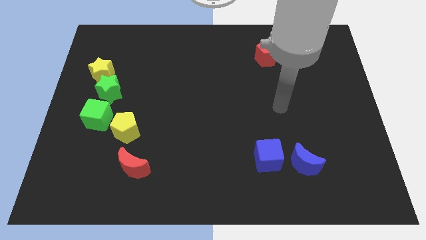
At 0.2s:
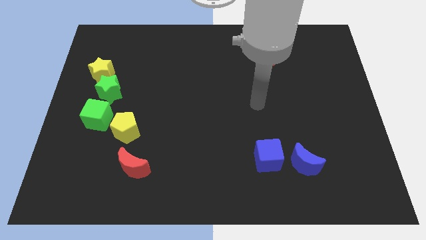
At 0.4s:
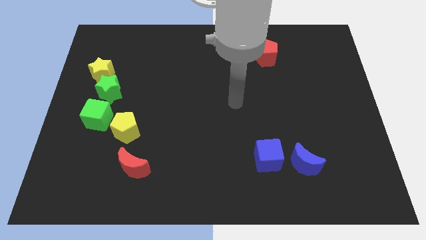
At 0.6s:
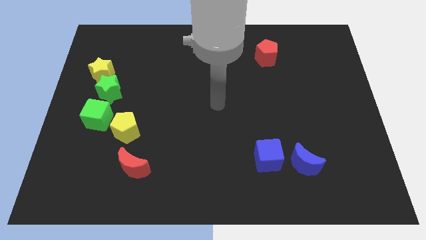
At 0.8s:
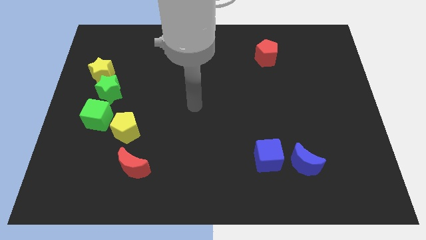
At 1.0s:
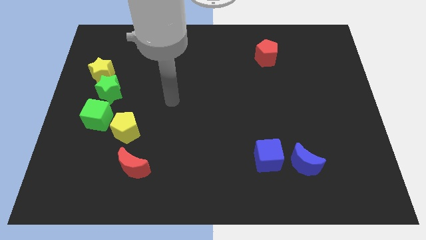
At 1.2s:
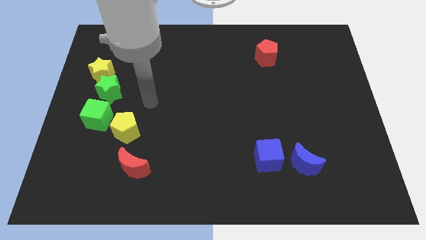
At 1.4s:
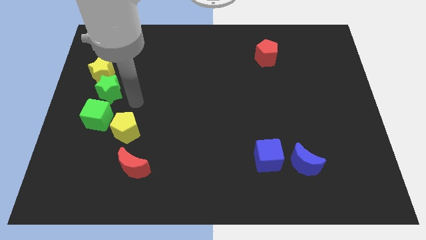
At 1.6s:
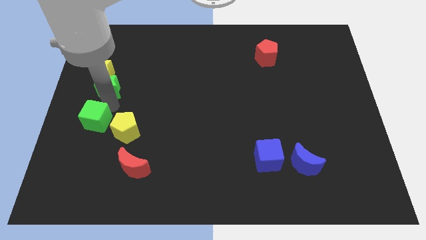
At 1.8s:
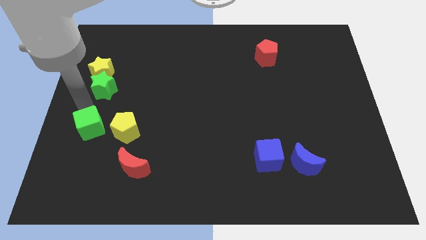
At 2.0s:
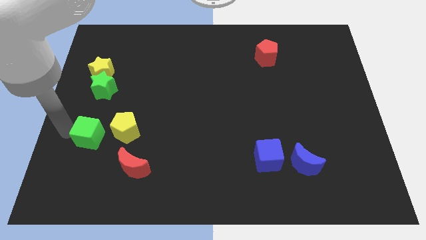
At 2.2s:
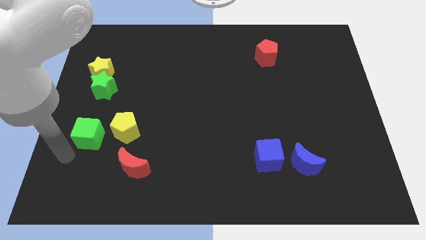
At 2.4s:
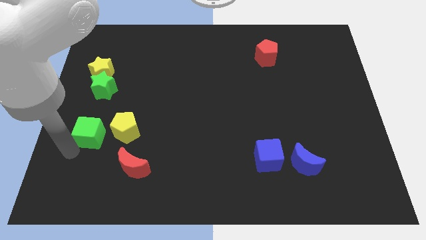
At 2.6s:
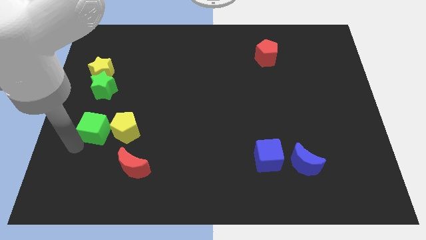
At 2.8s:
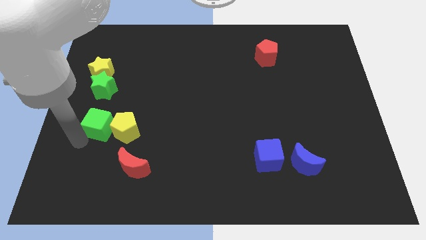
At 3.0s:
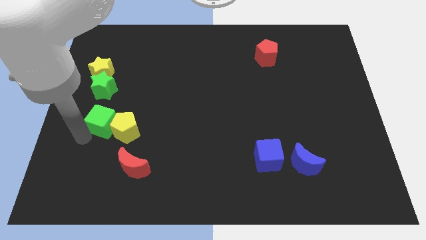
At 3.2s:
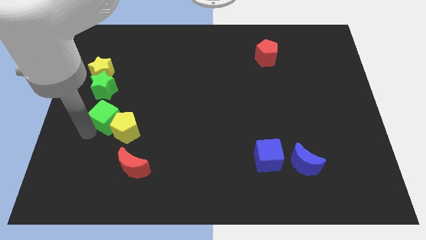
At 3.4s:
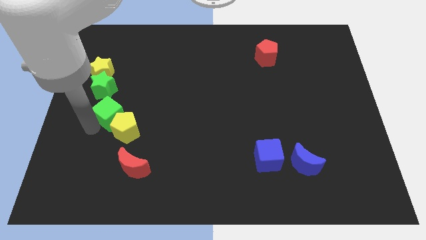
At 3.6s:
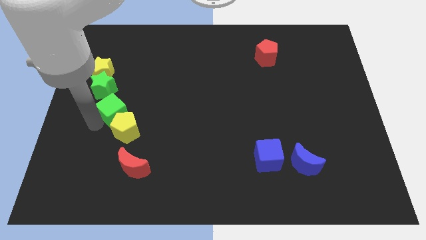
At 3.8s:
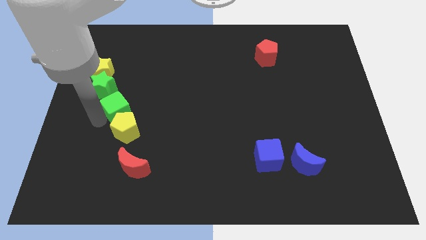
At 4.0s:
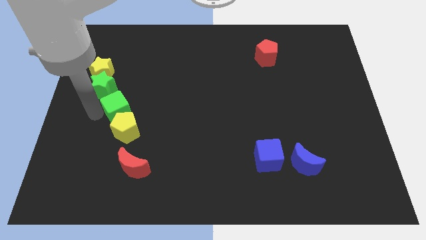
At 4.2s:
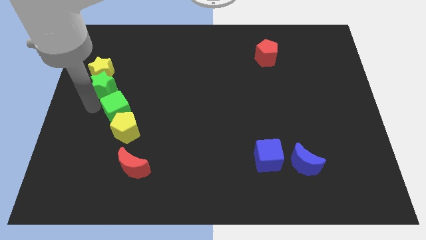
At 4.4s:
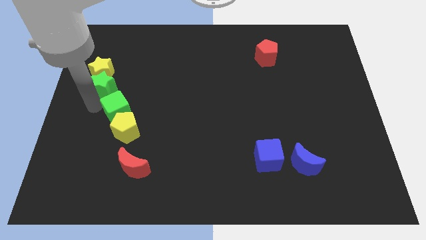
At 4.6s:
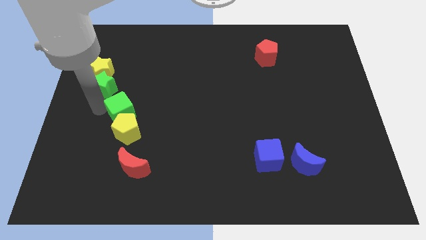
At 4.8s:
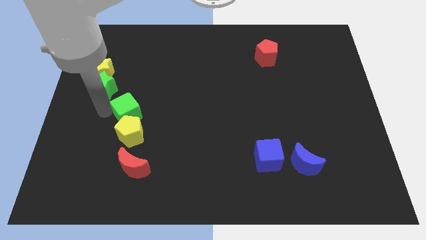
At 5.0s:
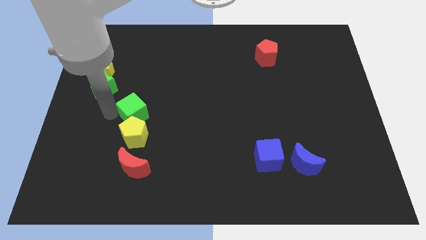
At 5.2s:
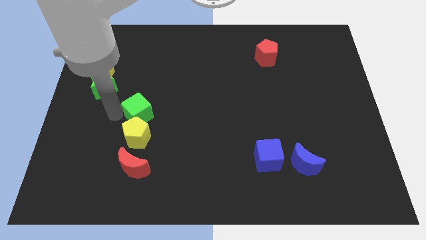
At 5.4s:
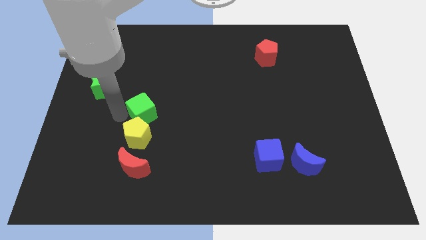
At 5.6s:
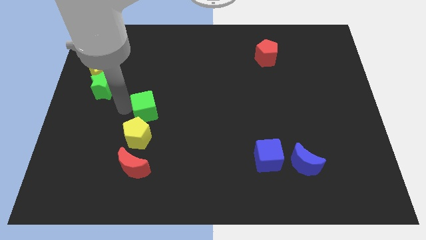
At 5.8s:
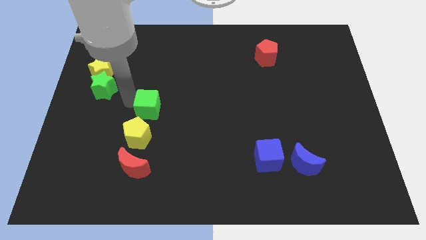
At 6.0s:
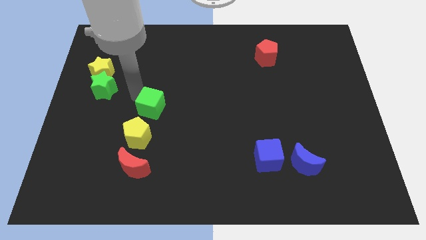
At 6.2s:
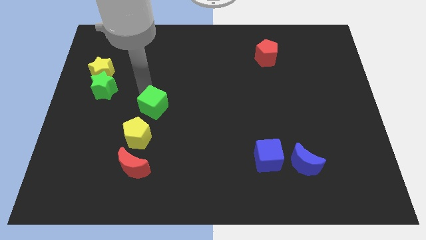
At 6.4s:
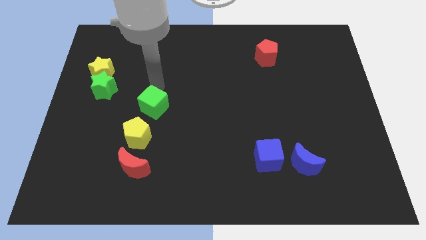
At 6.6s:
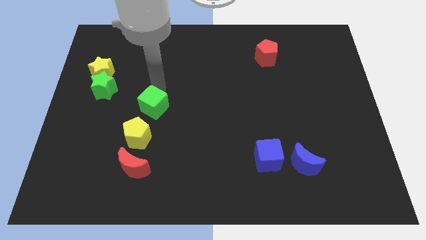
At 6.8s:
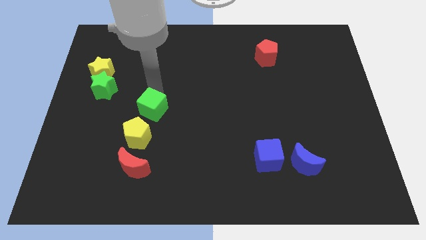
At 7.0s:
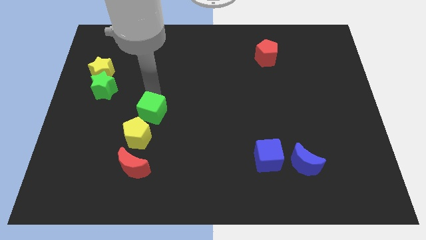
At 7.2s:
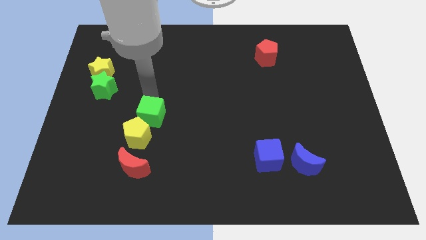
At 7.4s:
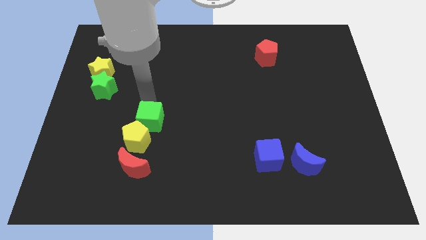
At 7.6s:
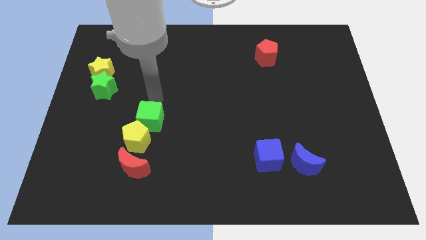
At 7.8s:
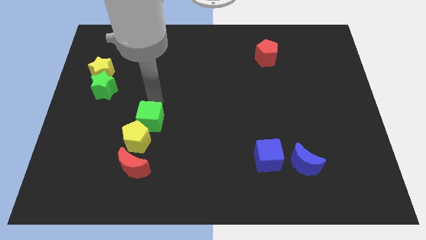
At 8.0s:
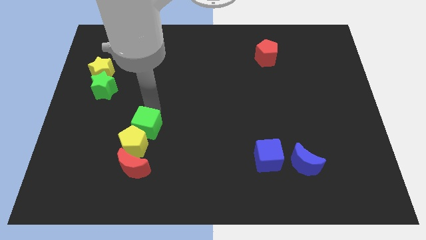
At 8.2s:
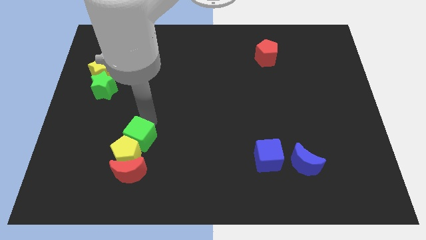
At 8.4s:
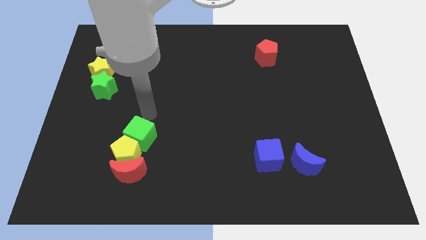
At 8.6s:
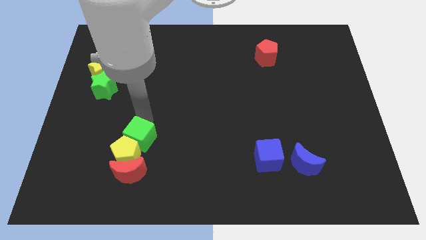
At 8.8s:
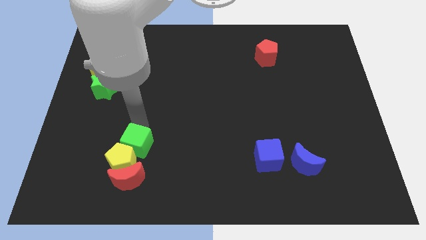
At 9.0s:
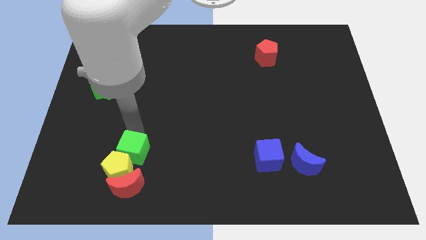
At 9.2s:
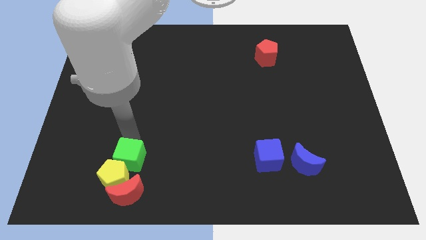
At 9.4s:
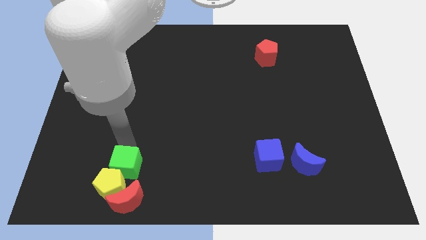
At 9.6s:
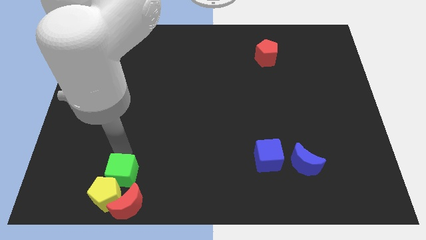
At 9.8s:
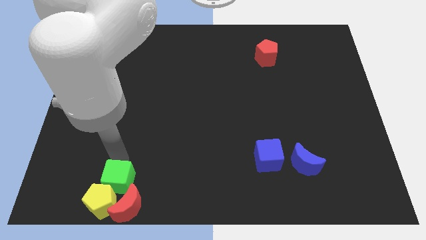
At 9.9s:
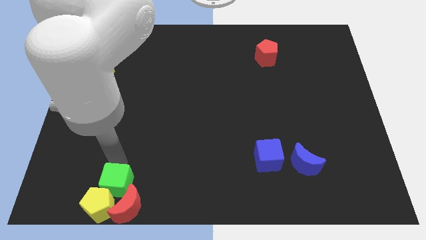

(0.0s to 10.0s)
slide the green cube to the red moon

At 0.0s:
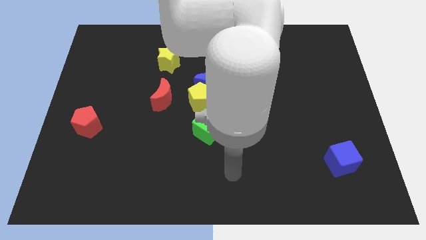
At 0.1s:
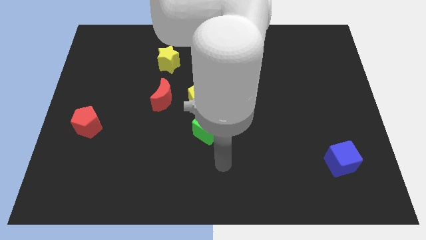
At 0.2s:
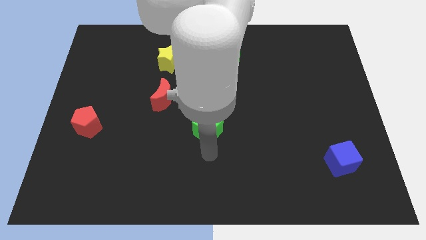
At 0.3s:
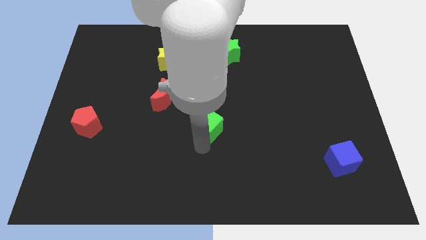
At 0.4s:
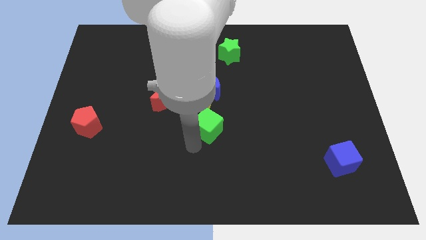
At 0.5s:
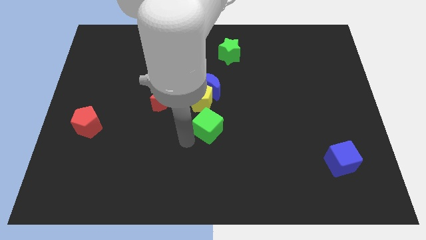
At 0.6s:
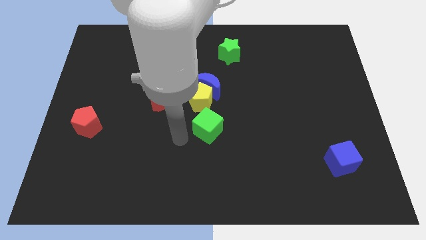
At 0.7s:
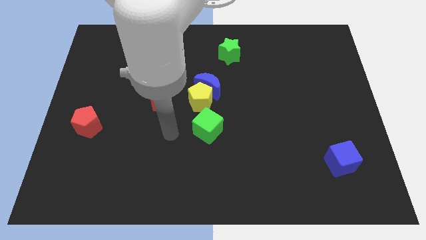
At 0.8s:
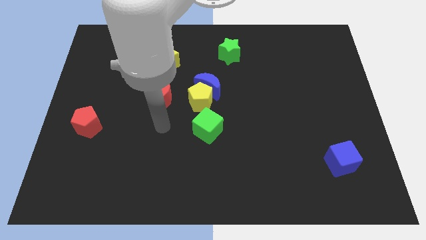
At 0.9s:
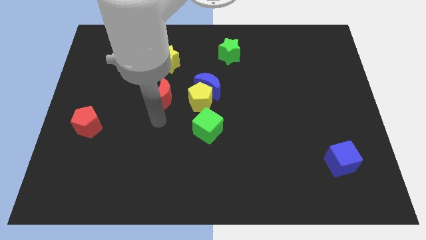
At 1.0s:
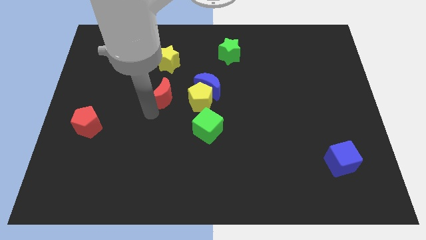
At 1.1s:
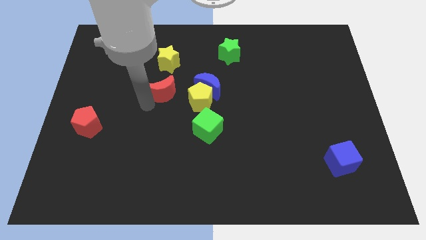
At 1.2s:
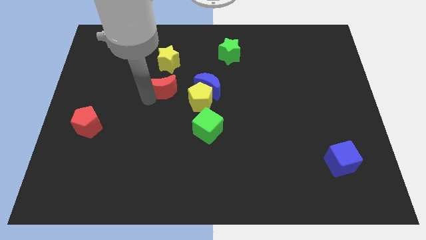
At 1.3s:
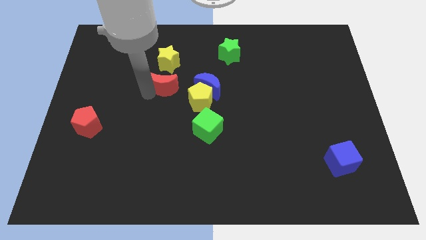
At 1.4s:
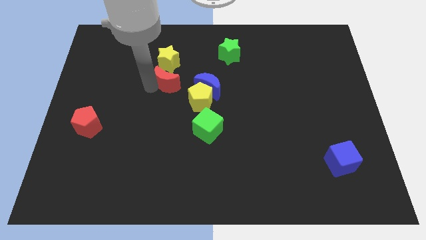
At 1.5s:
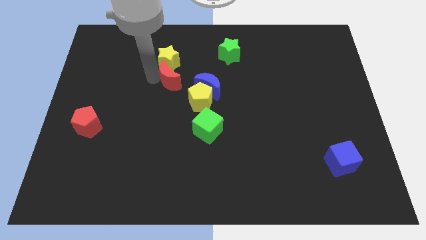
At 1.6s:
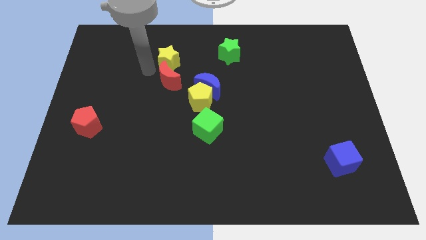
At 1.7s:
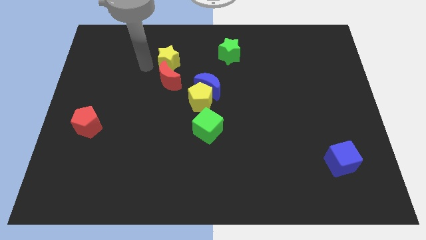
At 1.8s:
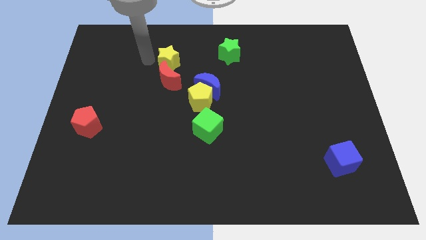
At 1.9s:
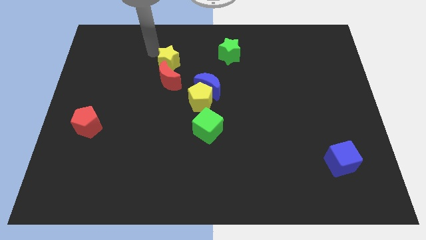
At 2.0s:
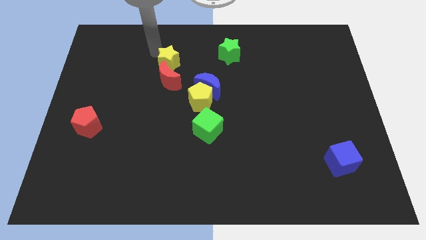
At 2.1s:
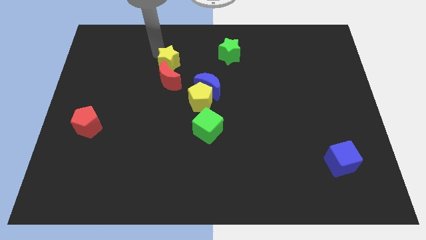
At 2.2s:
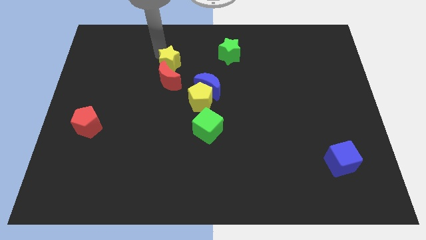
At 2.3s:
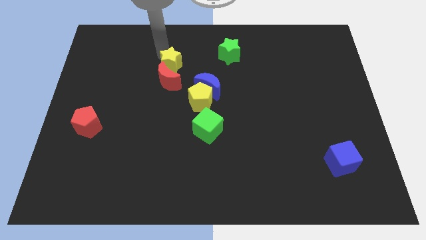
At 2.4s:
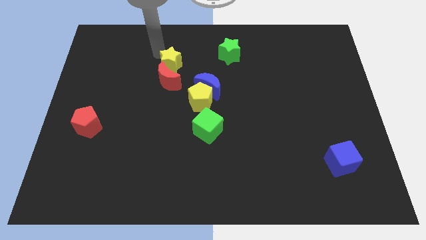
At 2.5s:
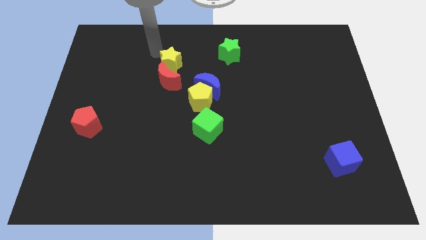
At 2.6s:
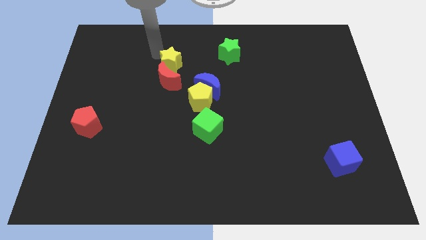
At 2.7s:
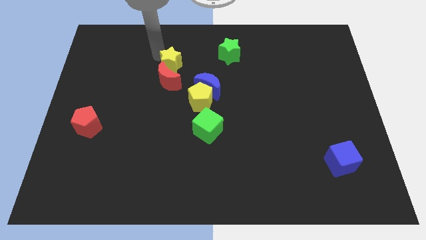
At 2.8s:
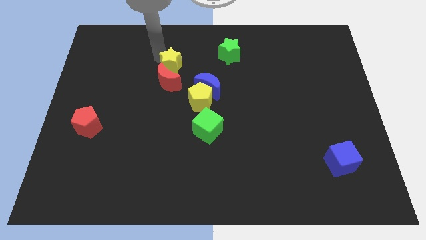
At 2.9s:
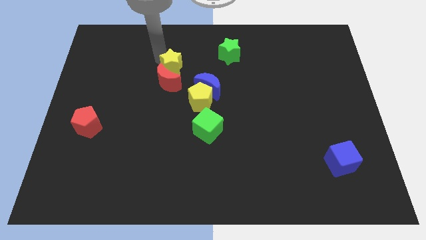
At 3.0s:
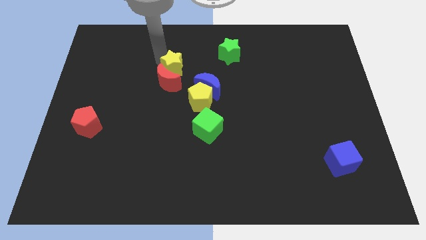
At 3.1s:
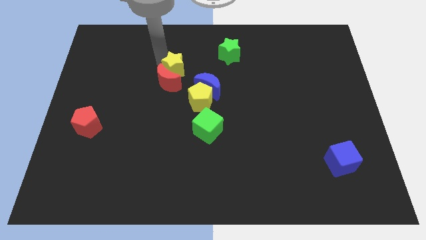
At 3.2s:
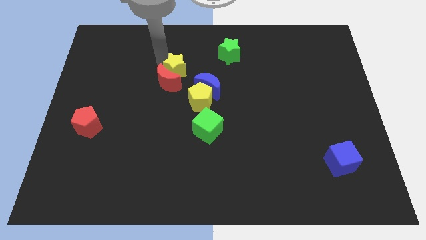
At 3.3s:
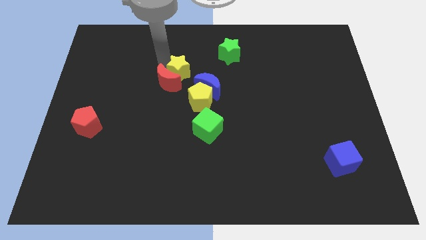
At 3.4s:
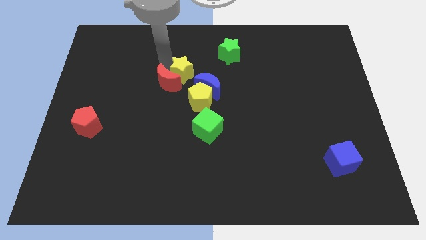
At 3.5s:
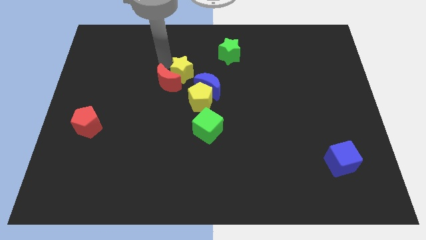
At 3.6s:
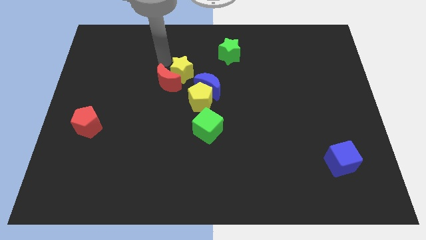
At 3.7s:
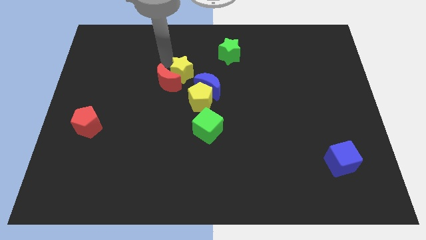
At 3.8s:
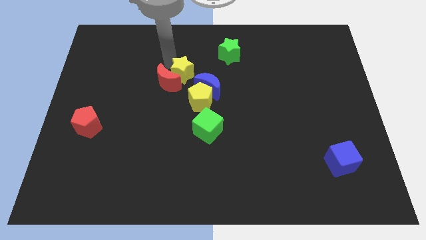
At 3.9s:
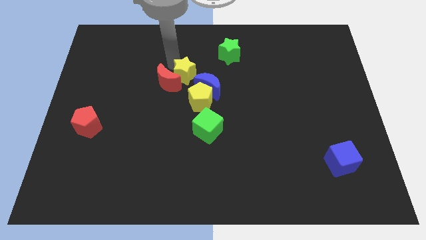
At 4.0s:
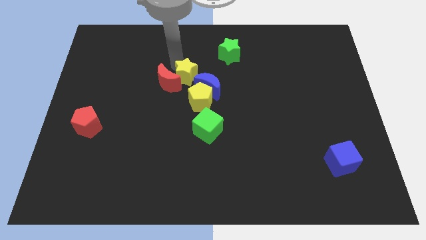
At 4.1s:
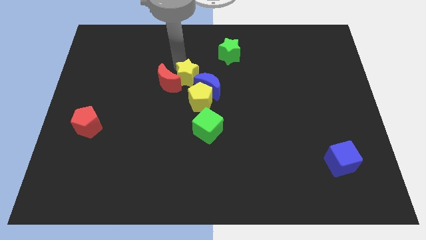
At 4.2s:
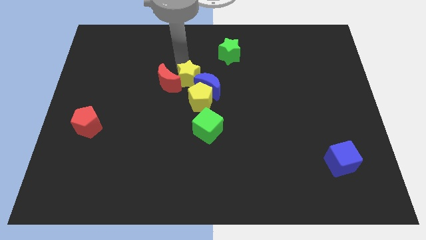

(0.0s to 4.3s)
push the yellow star close to the blue moon
